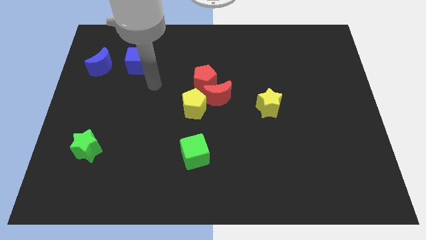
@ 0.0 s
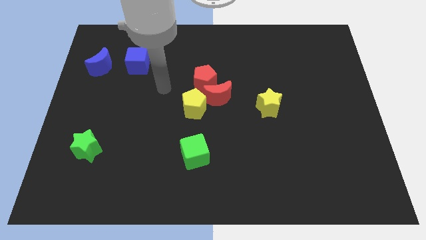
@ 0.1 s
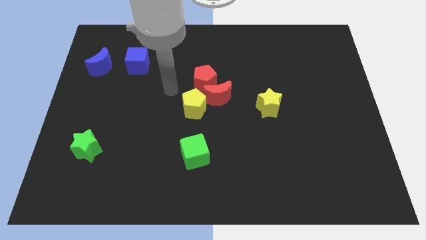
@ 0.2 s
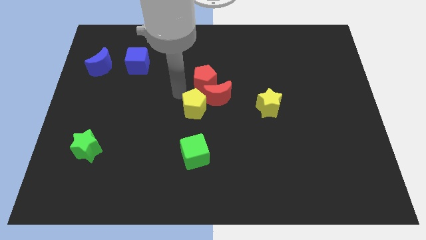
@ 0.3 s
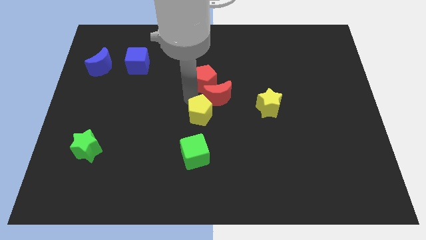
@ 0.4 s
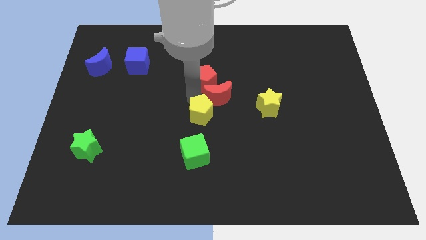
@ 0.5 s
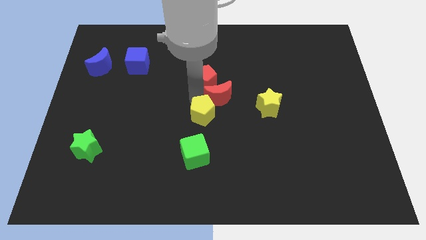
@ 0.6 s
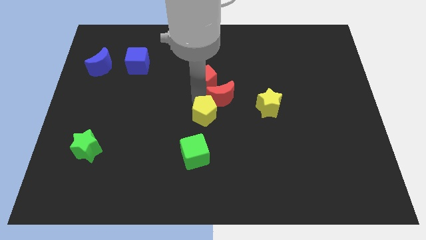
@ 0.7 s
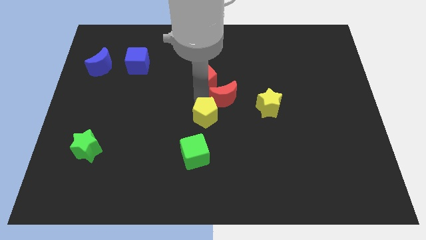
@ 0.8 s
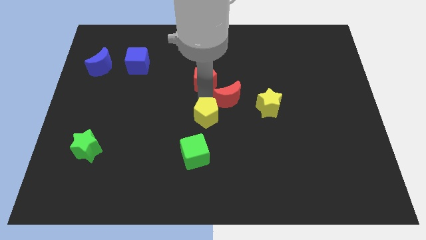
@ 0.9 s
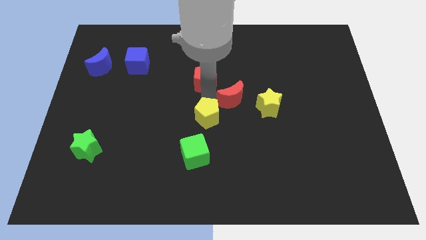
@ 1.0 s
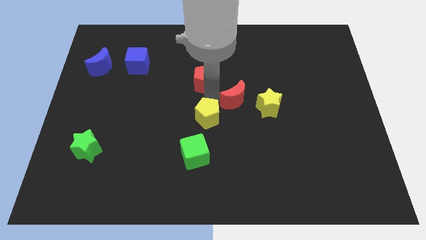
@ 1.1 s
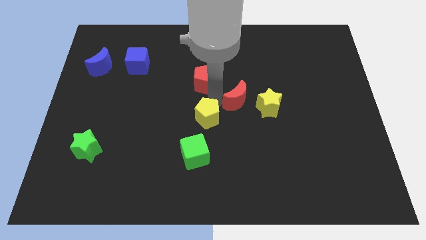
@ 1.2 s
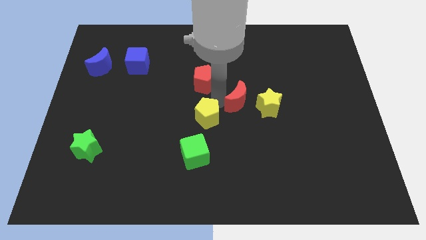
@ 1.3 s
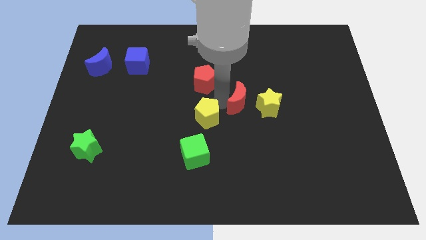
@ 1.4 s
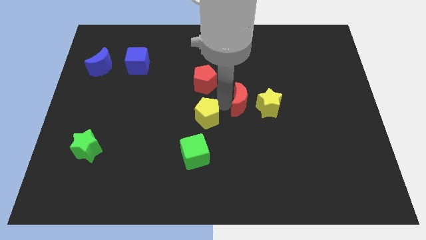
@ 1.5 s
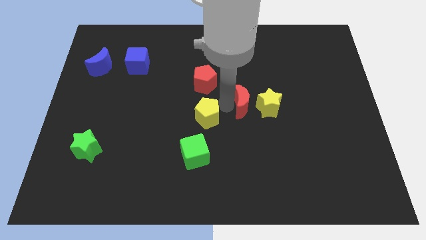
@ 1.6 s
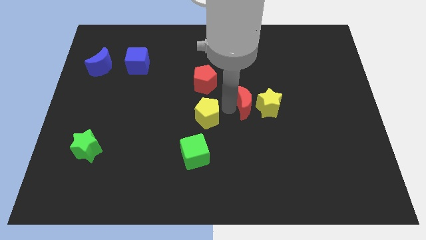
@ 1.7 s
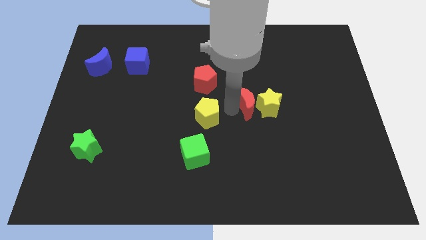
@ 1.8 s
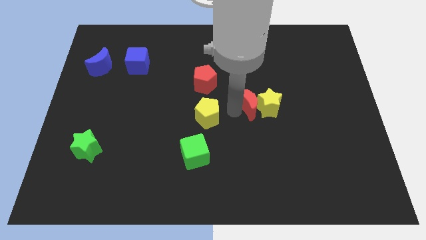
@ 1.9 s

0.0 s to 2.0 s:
push the red moon to the right somewhat

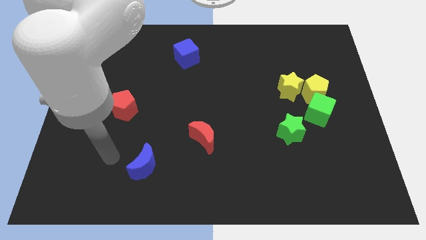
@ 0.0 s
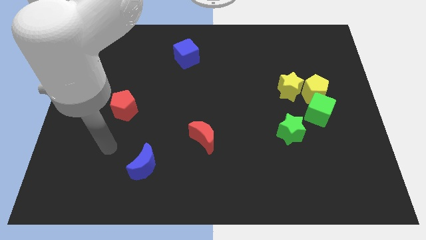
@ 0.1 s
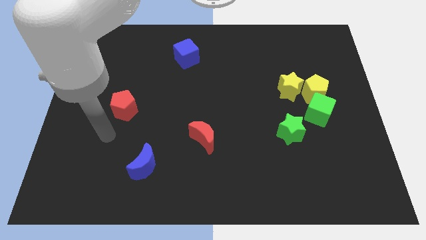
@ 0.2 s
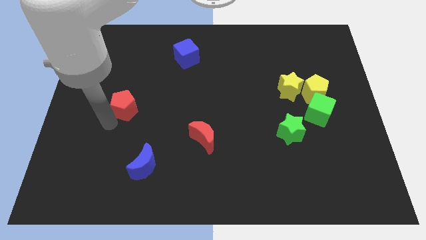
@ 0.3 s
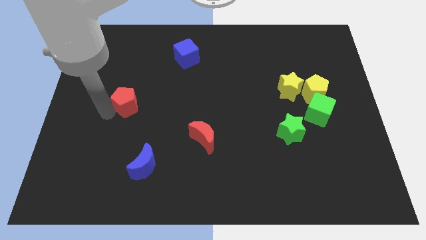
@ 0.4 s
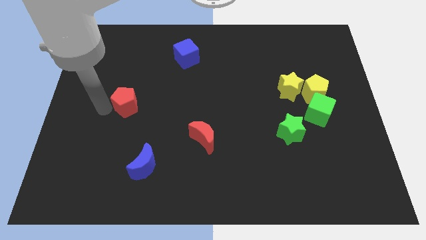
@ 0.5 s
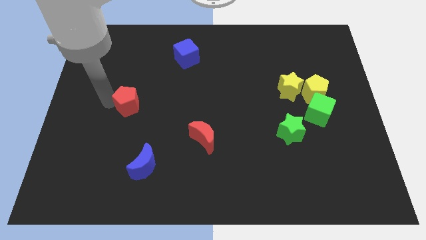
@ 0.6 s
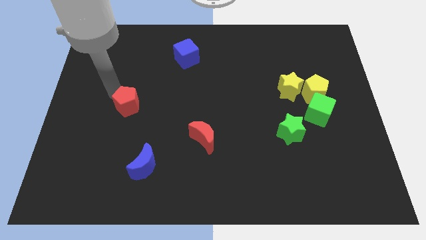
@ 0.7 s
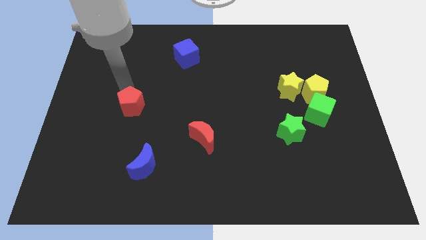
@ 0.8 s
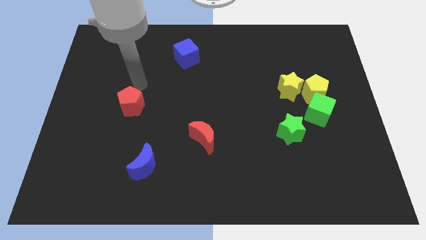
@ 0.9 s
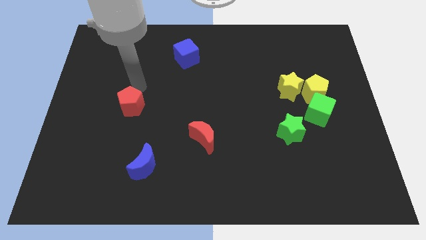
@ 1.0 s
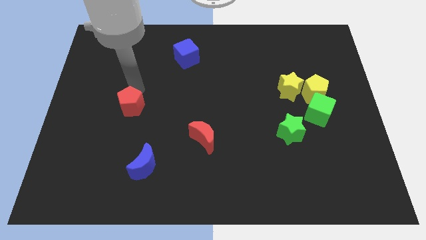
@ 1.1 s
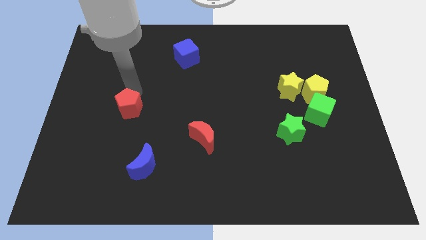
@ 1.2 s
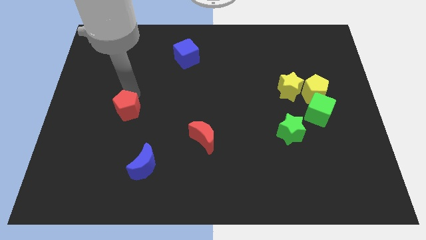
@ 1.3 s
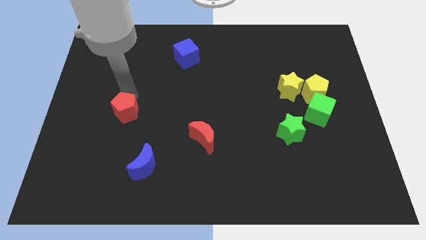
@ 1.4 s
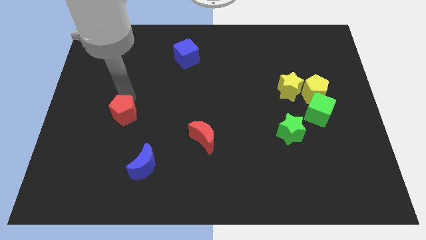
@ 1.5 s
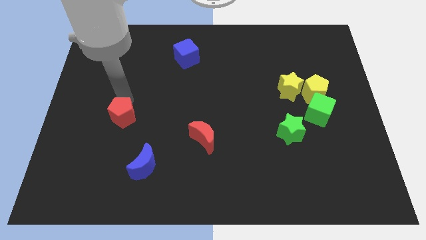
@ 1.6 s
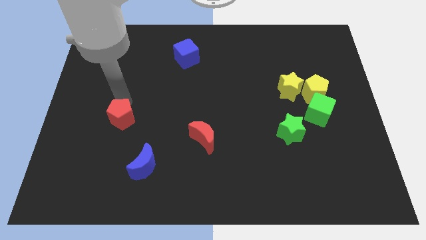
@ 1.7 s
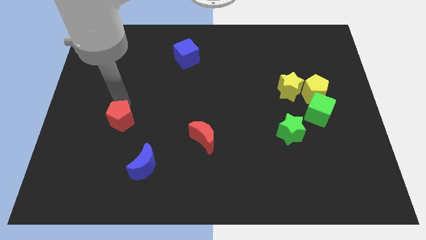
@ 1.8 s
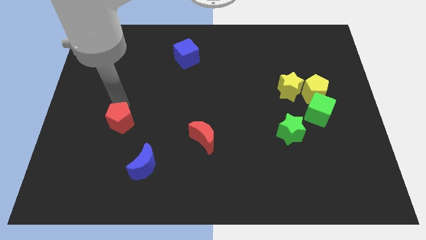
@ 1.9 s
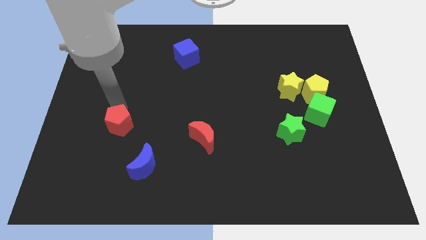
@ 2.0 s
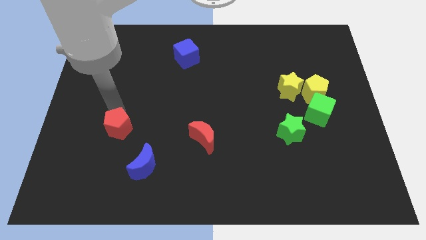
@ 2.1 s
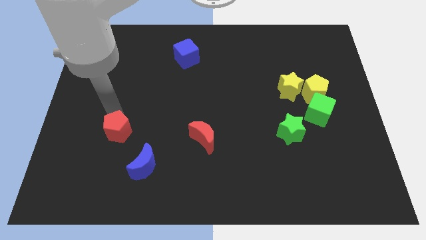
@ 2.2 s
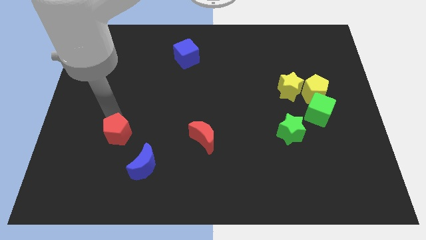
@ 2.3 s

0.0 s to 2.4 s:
move the red pentagon a little down

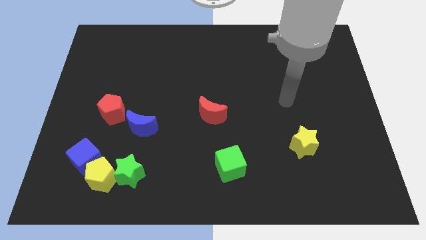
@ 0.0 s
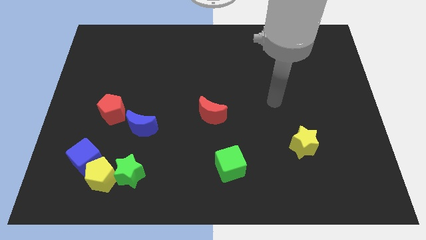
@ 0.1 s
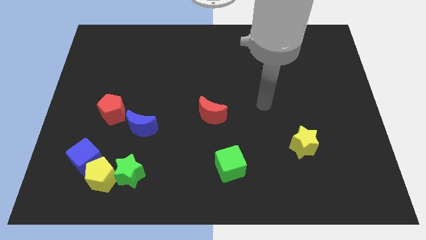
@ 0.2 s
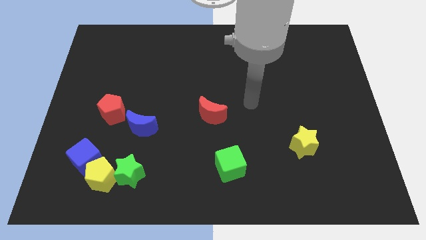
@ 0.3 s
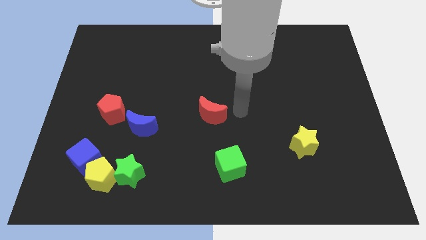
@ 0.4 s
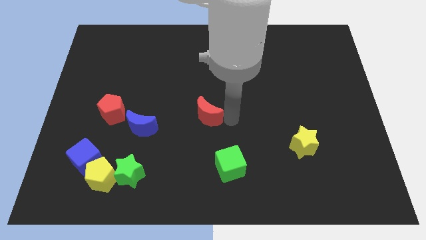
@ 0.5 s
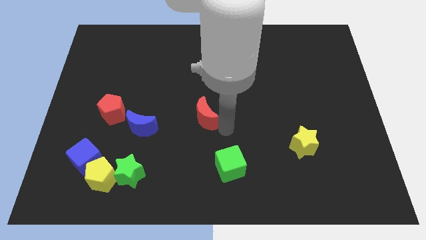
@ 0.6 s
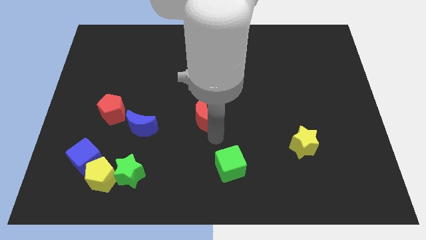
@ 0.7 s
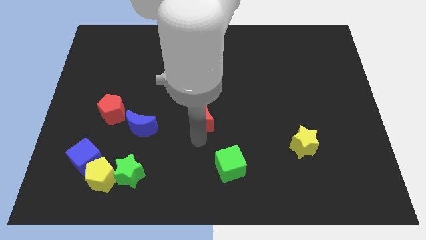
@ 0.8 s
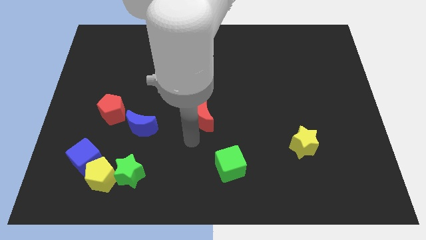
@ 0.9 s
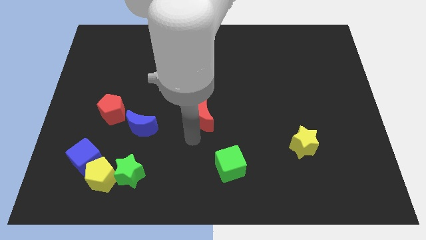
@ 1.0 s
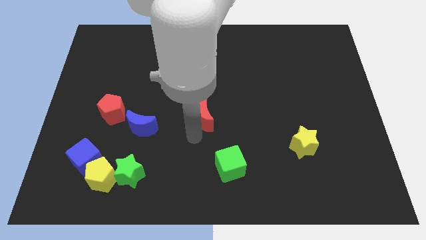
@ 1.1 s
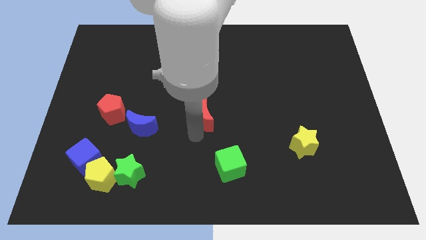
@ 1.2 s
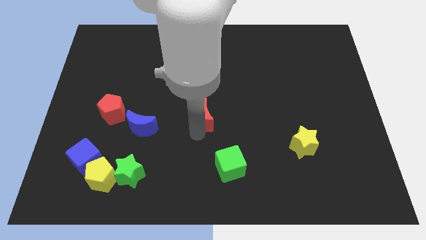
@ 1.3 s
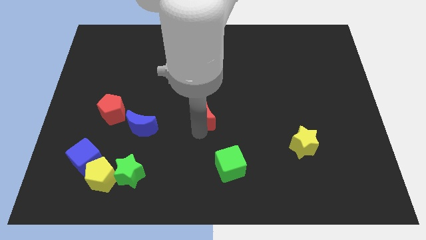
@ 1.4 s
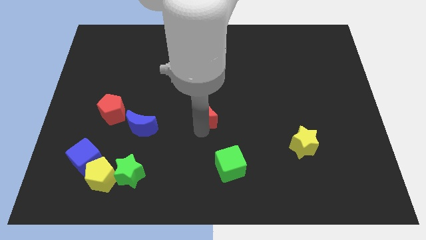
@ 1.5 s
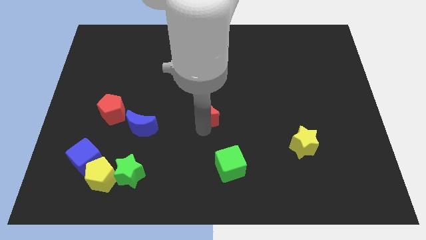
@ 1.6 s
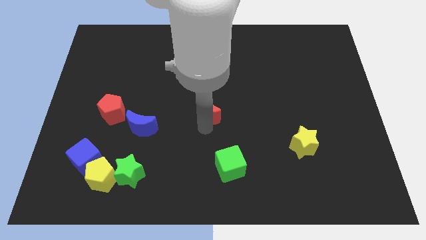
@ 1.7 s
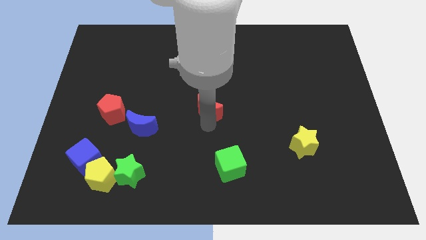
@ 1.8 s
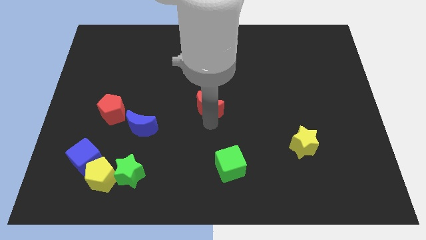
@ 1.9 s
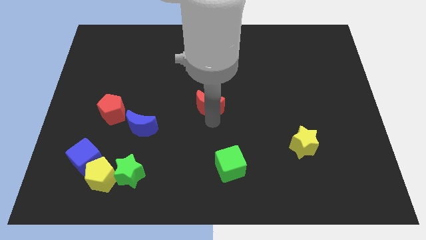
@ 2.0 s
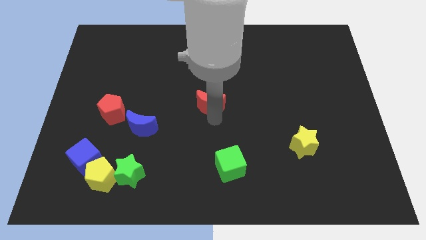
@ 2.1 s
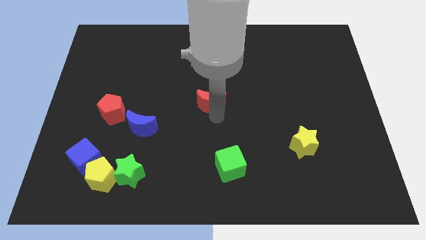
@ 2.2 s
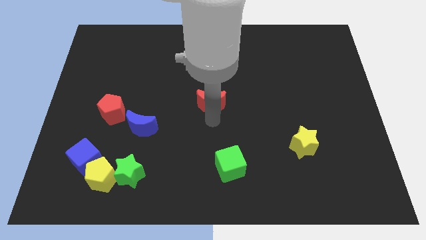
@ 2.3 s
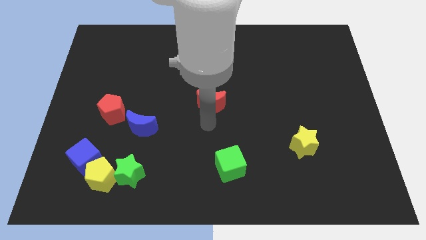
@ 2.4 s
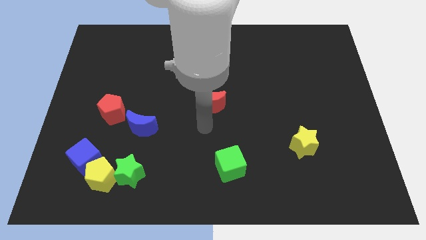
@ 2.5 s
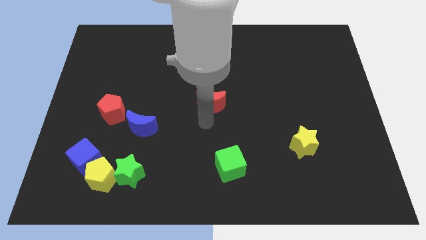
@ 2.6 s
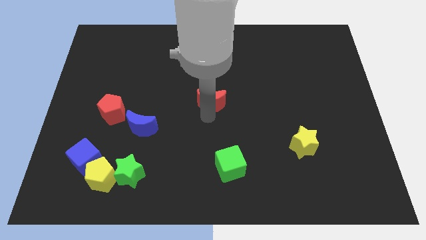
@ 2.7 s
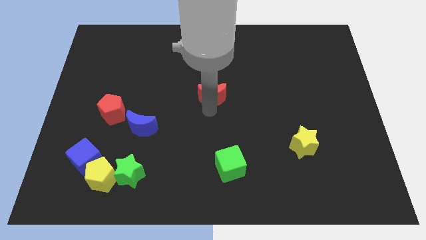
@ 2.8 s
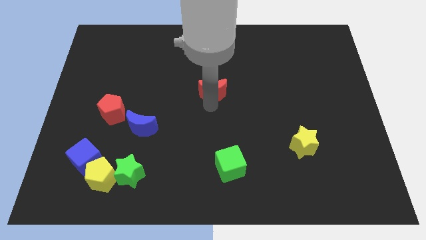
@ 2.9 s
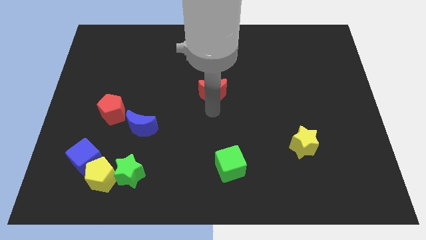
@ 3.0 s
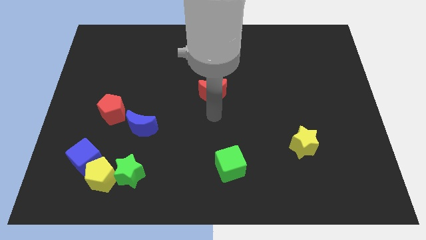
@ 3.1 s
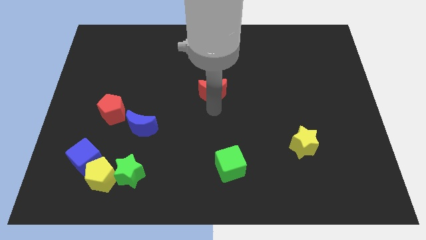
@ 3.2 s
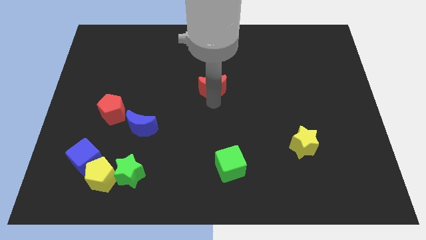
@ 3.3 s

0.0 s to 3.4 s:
slide the red moon somewhat upwards

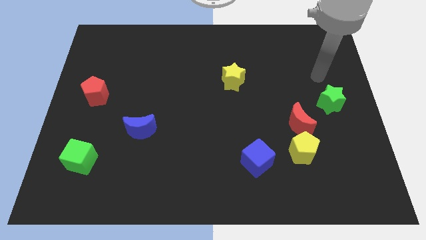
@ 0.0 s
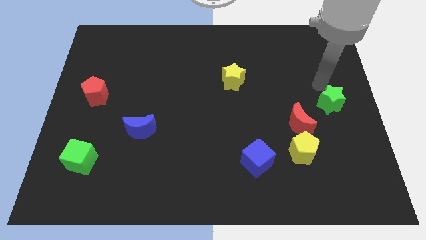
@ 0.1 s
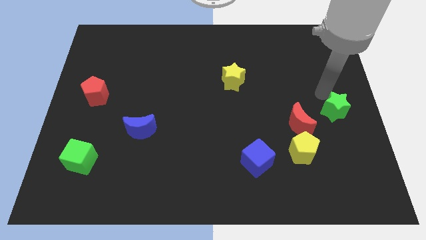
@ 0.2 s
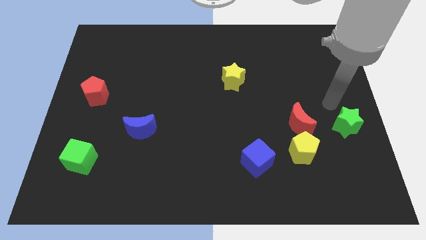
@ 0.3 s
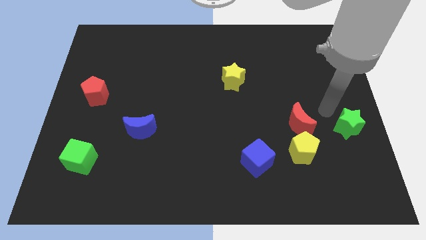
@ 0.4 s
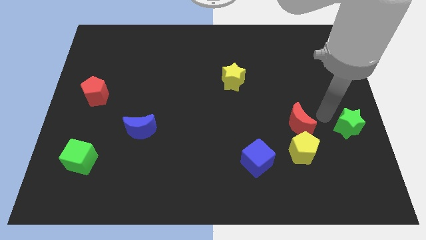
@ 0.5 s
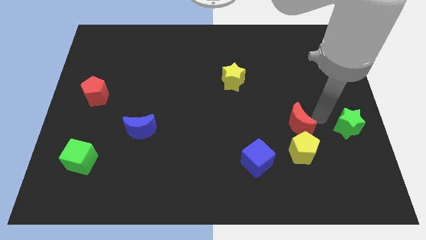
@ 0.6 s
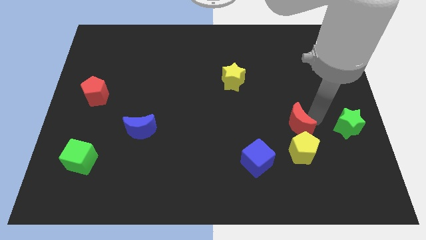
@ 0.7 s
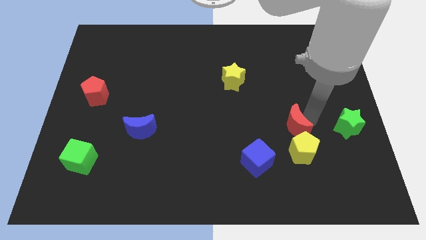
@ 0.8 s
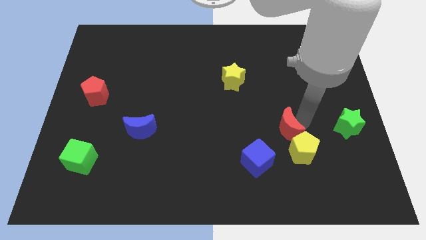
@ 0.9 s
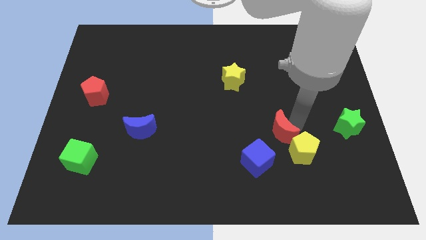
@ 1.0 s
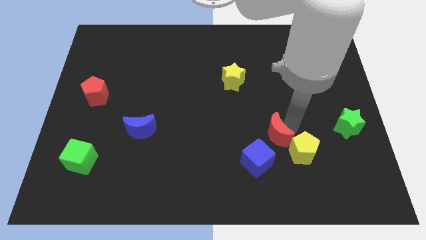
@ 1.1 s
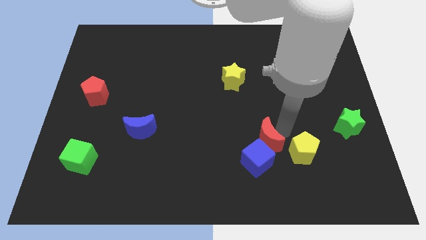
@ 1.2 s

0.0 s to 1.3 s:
slightly slide the red moon diagonally downwards and to the left
